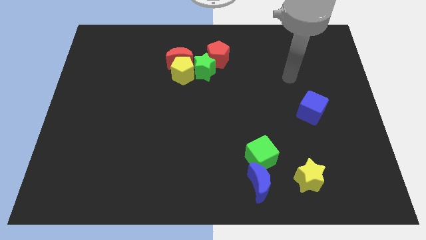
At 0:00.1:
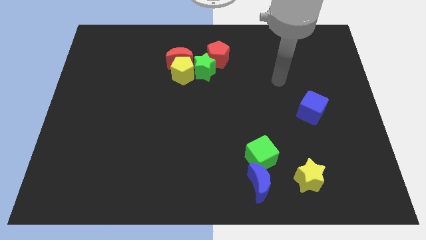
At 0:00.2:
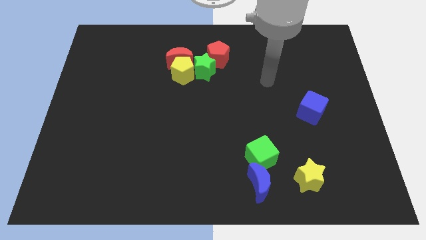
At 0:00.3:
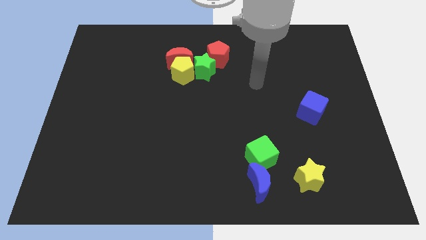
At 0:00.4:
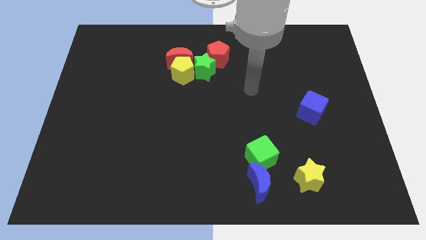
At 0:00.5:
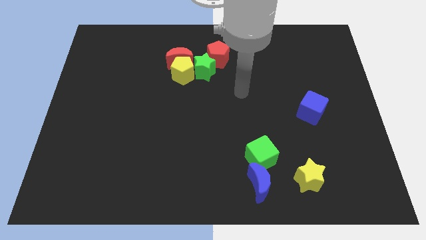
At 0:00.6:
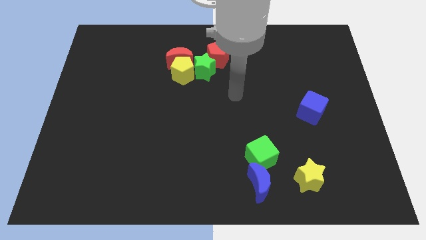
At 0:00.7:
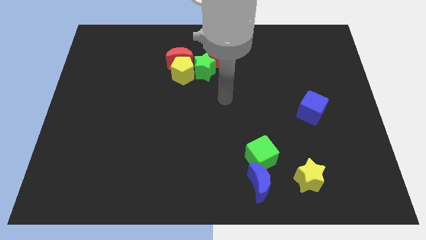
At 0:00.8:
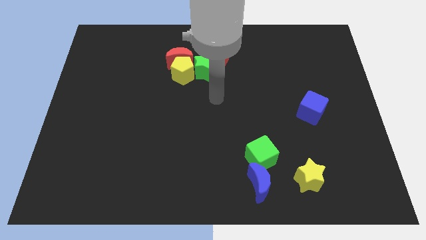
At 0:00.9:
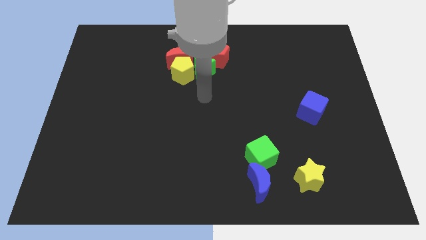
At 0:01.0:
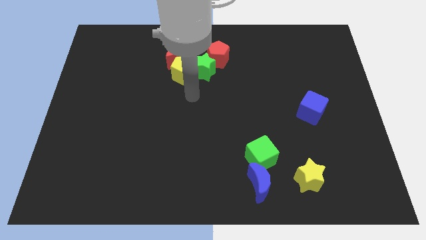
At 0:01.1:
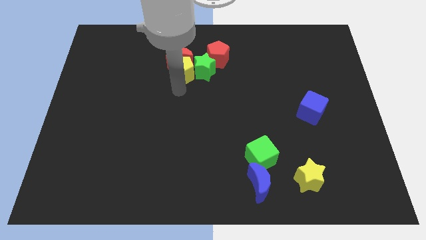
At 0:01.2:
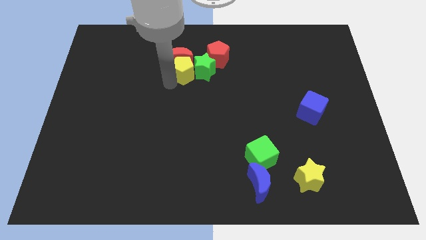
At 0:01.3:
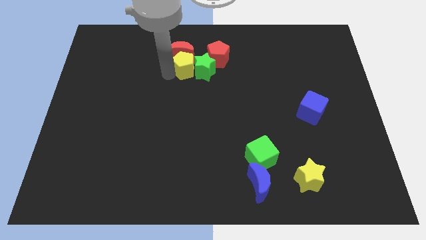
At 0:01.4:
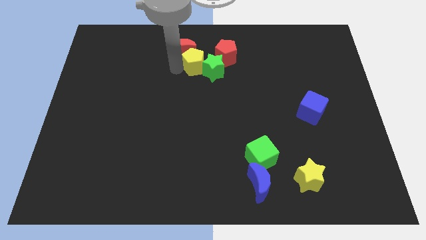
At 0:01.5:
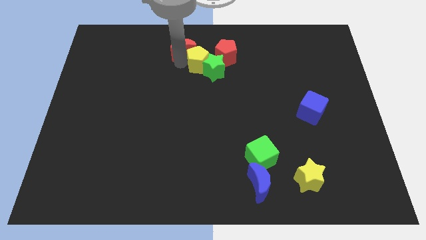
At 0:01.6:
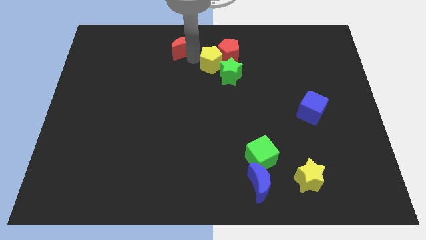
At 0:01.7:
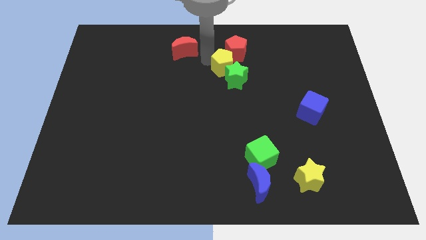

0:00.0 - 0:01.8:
pull the green star apart from the group of blocks

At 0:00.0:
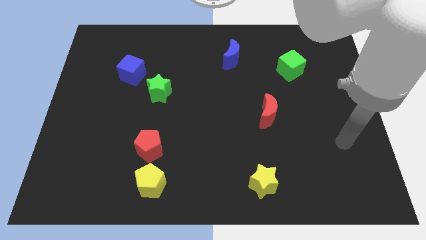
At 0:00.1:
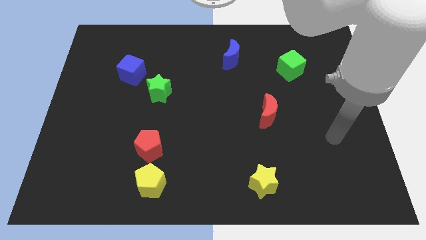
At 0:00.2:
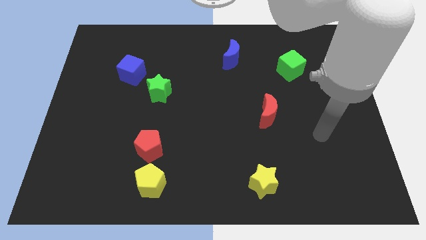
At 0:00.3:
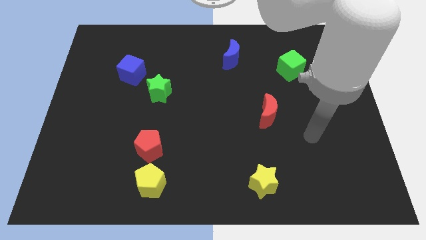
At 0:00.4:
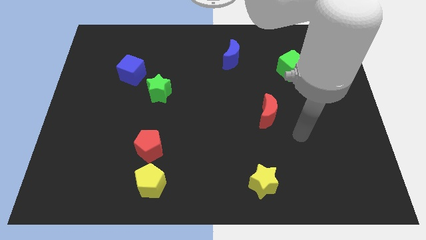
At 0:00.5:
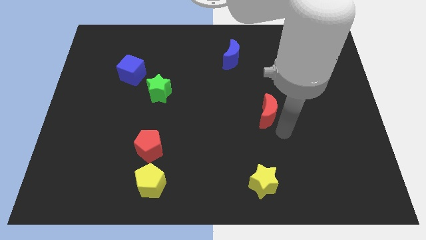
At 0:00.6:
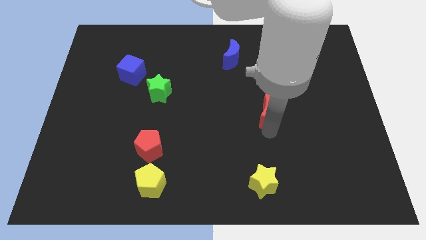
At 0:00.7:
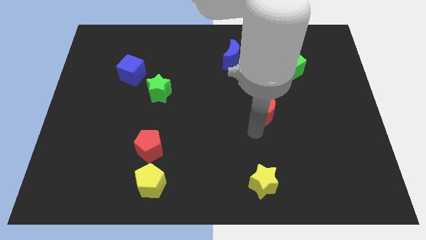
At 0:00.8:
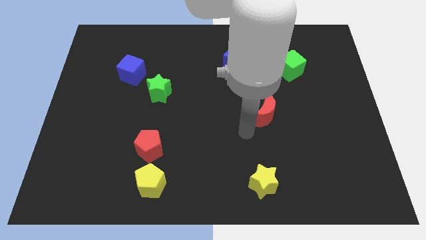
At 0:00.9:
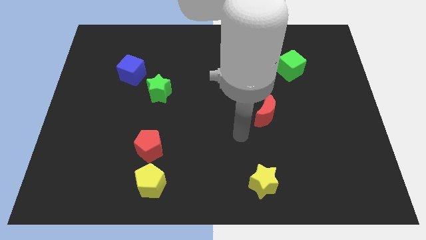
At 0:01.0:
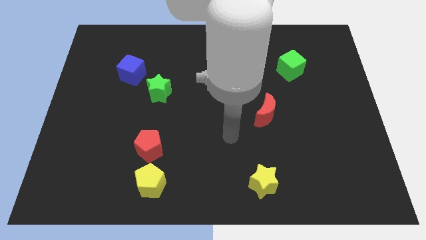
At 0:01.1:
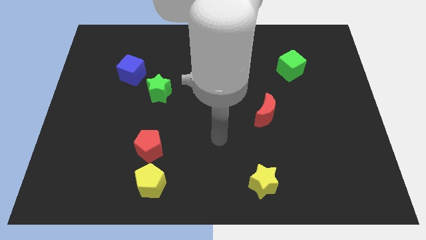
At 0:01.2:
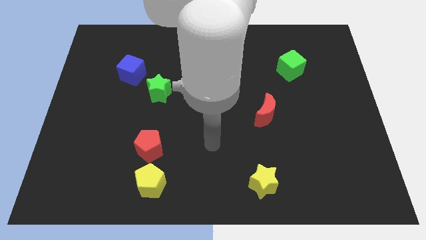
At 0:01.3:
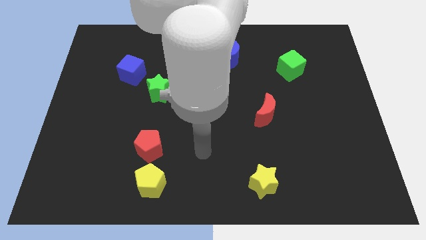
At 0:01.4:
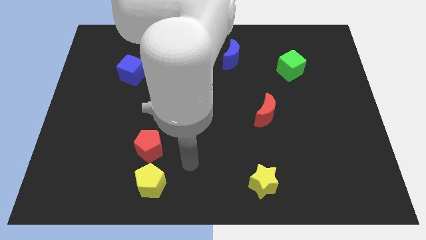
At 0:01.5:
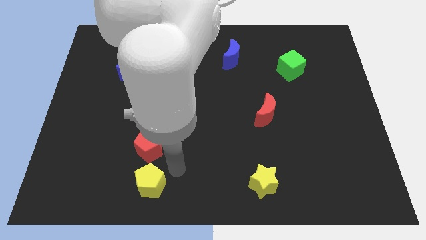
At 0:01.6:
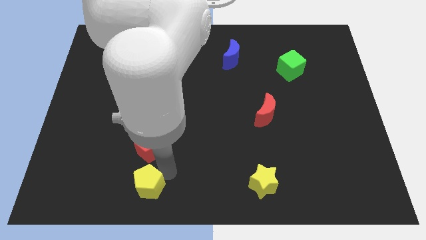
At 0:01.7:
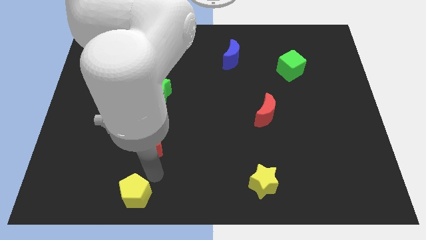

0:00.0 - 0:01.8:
move the red pentagon away from the yellow pentagon

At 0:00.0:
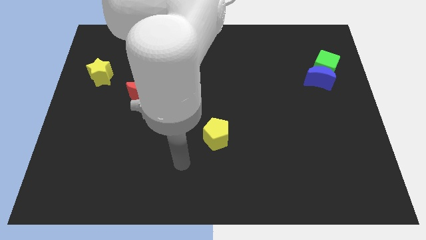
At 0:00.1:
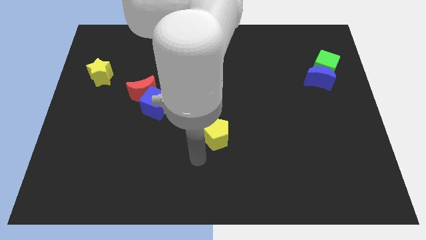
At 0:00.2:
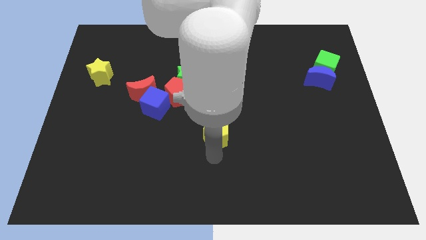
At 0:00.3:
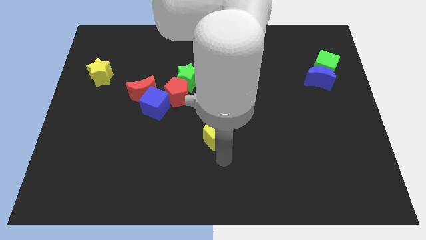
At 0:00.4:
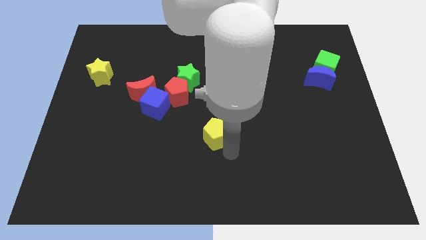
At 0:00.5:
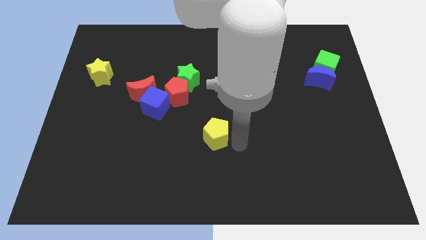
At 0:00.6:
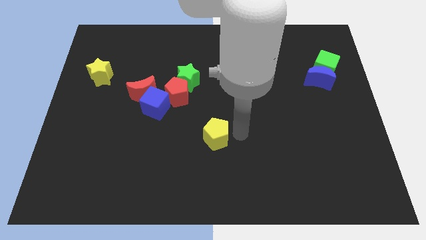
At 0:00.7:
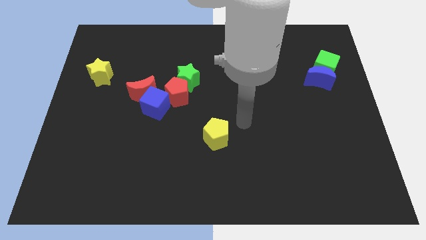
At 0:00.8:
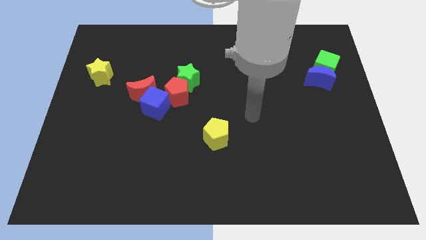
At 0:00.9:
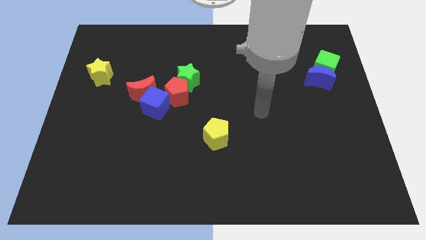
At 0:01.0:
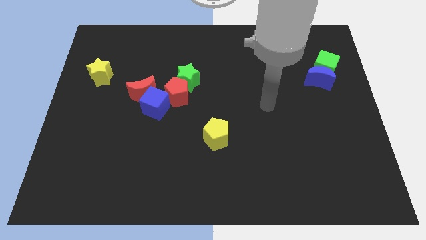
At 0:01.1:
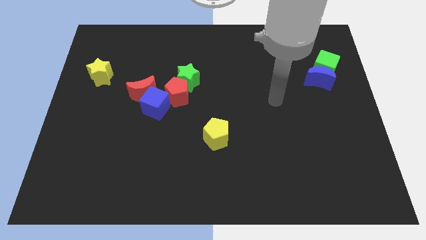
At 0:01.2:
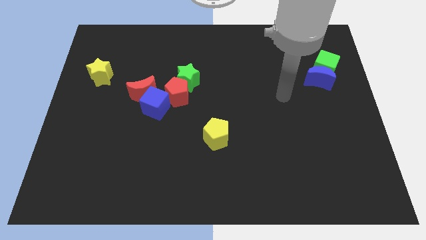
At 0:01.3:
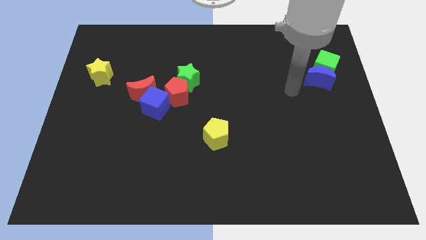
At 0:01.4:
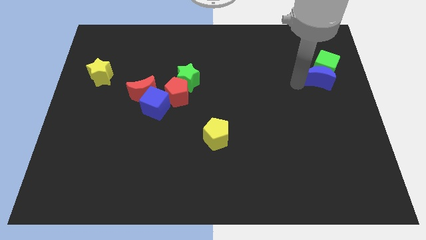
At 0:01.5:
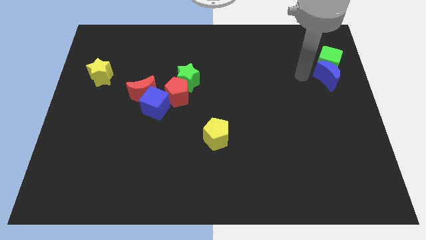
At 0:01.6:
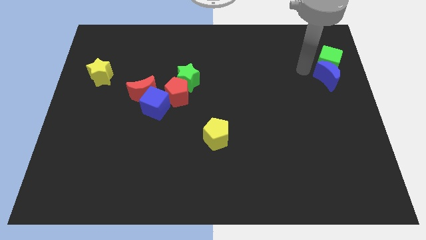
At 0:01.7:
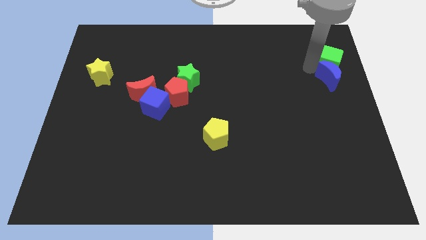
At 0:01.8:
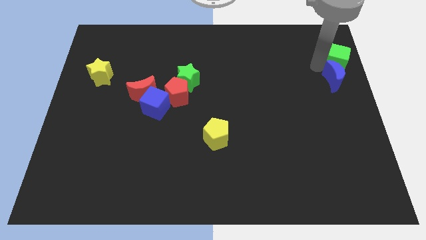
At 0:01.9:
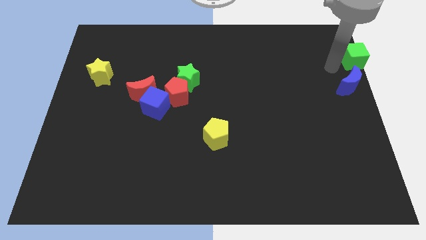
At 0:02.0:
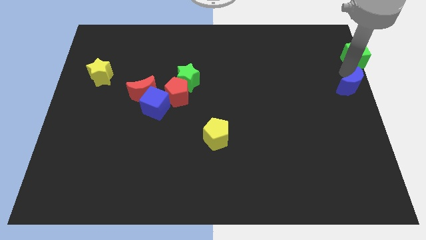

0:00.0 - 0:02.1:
separate the blue moon from the green cube

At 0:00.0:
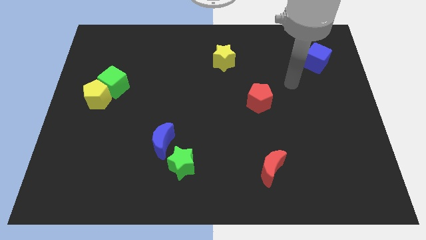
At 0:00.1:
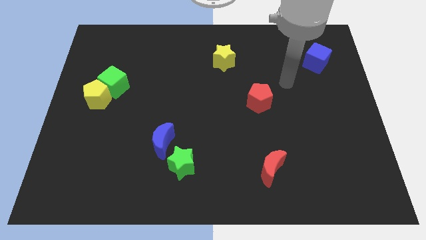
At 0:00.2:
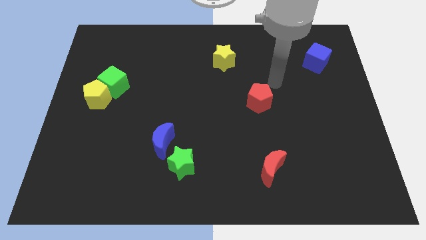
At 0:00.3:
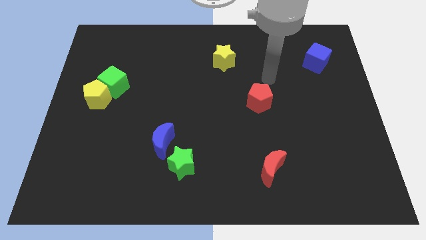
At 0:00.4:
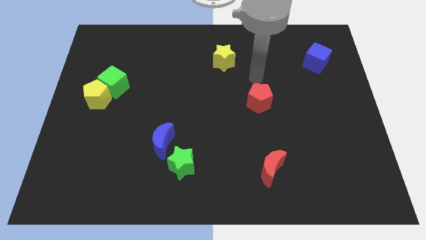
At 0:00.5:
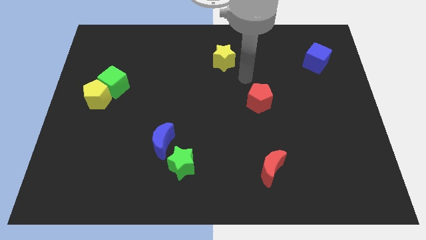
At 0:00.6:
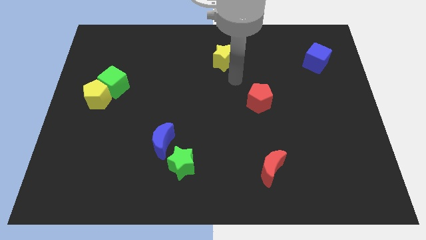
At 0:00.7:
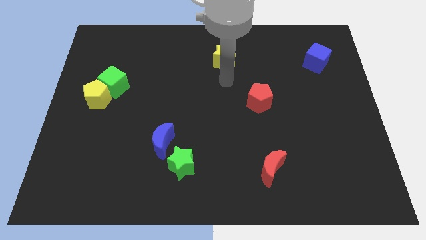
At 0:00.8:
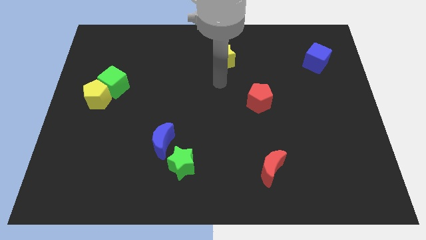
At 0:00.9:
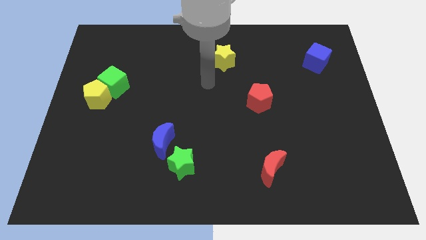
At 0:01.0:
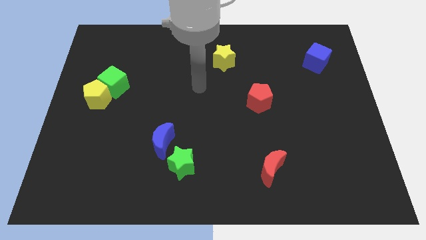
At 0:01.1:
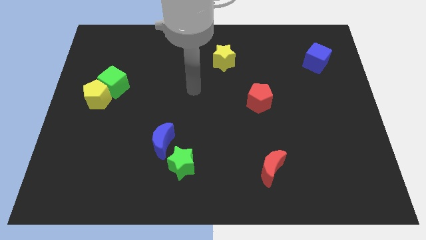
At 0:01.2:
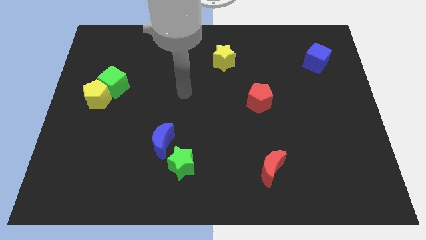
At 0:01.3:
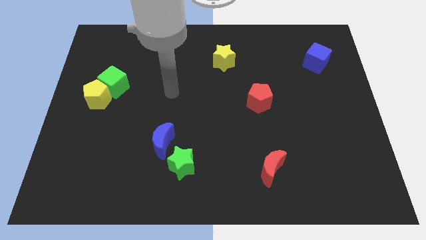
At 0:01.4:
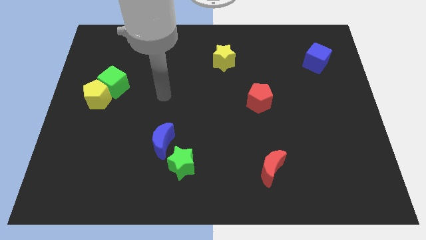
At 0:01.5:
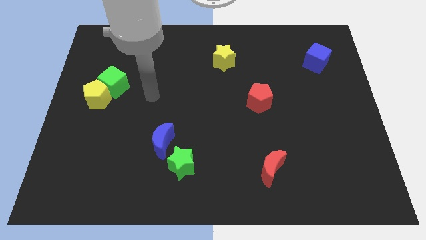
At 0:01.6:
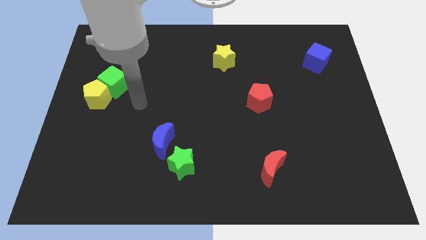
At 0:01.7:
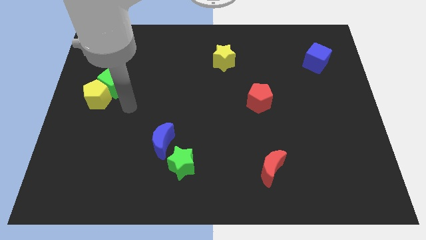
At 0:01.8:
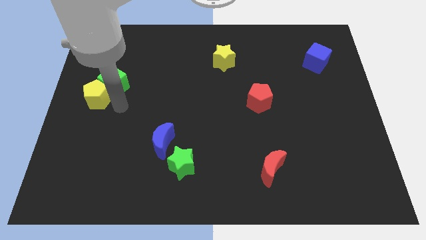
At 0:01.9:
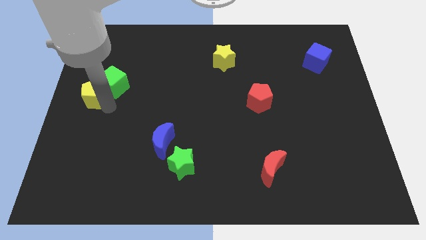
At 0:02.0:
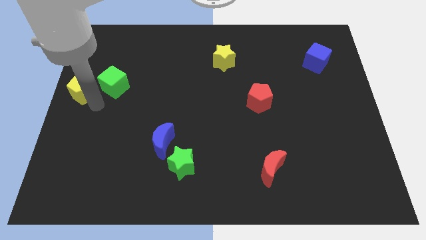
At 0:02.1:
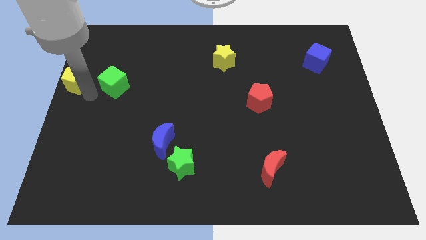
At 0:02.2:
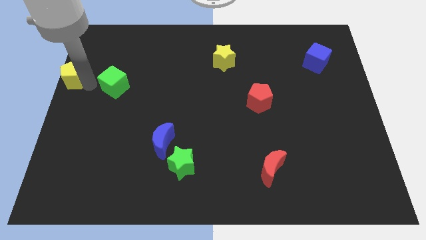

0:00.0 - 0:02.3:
move the green cube away from the yellow pentagon

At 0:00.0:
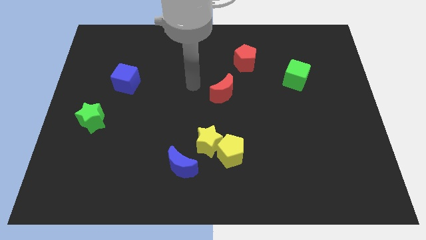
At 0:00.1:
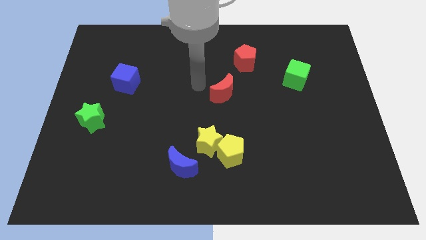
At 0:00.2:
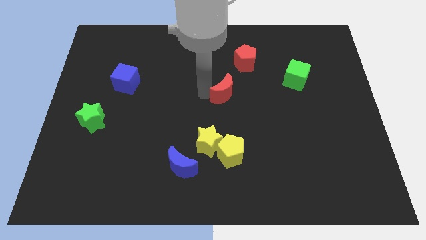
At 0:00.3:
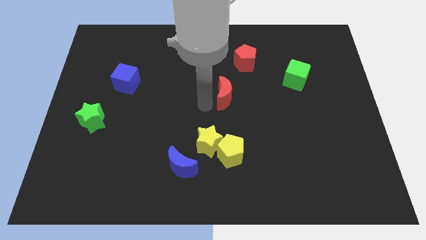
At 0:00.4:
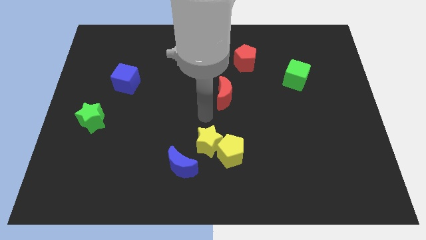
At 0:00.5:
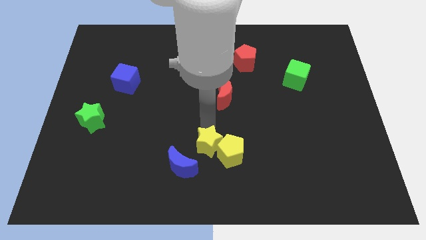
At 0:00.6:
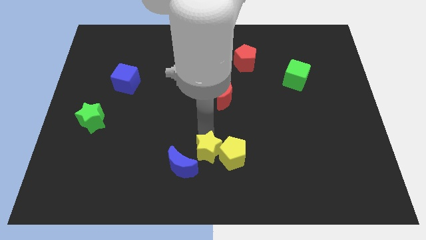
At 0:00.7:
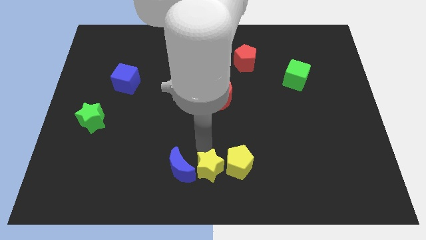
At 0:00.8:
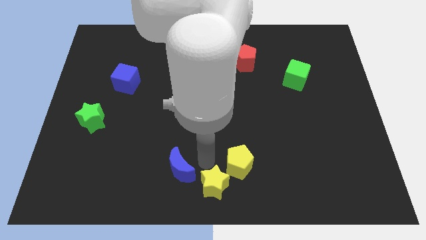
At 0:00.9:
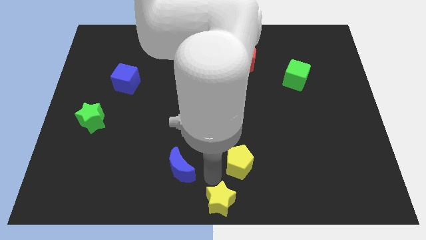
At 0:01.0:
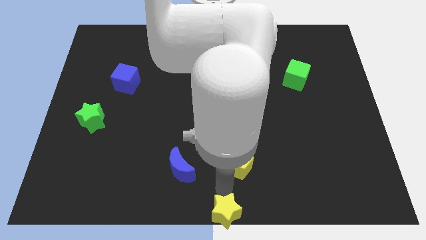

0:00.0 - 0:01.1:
separate the yellow pentagon from the yellow star

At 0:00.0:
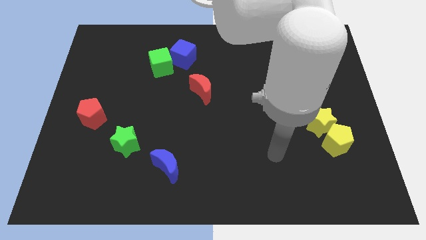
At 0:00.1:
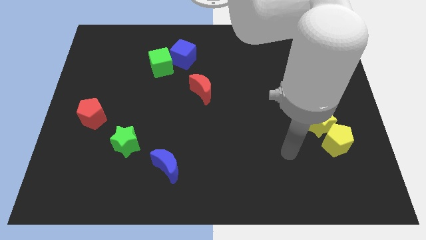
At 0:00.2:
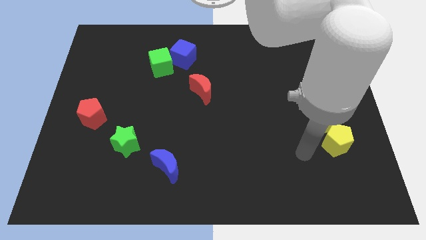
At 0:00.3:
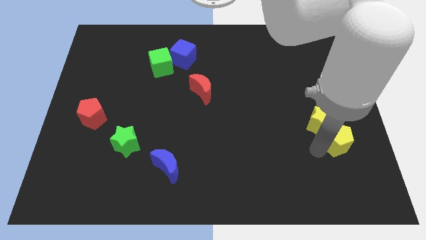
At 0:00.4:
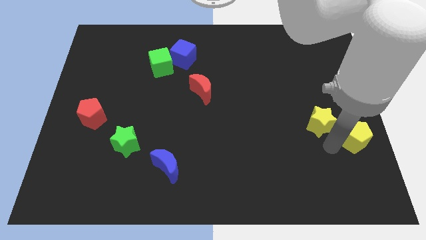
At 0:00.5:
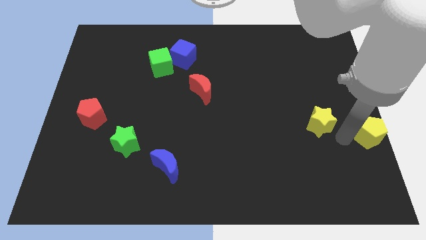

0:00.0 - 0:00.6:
move the yellow star away from the yellow pentagon
